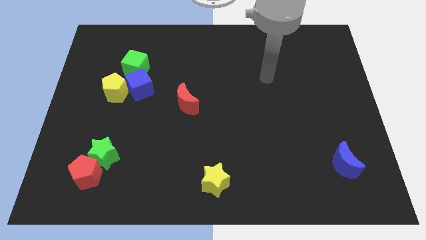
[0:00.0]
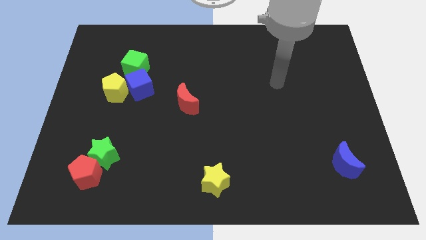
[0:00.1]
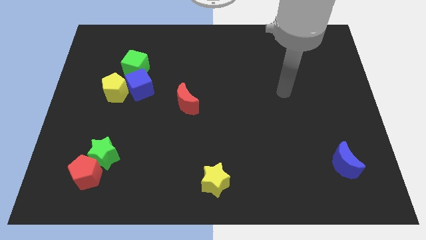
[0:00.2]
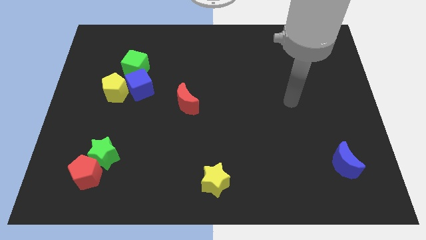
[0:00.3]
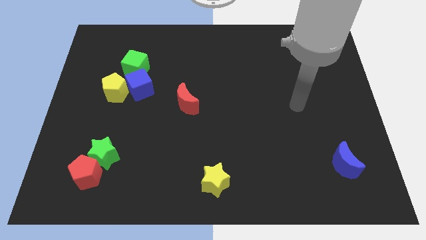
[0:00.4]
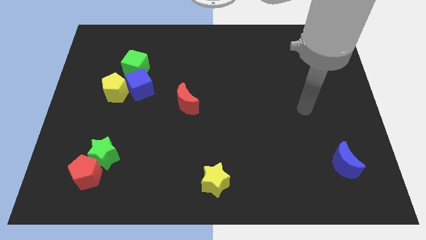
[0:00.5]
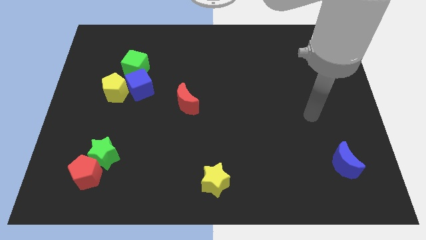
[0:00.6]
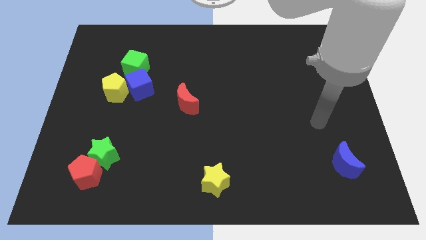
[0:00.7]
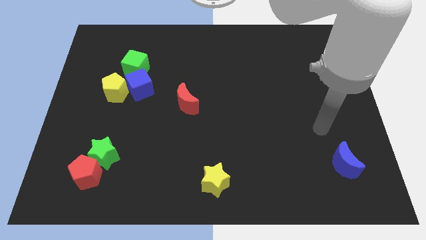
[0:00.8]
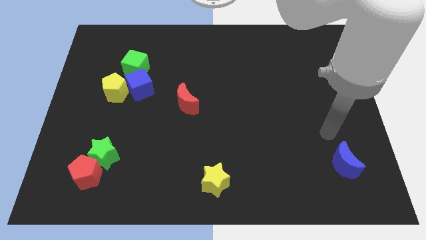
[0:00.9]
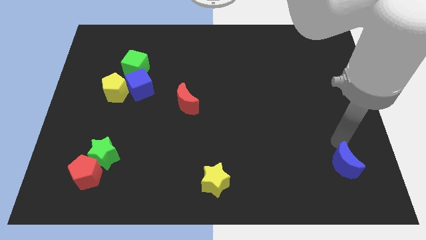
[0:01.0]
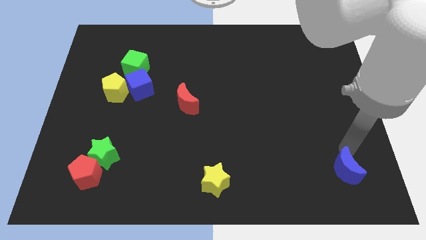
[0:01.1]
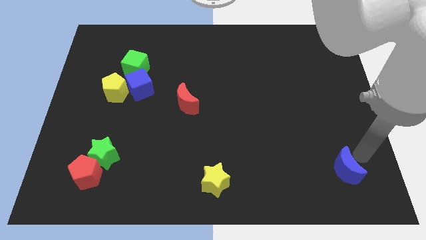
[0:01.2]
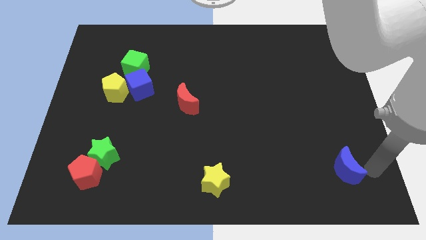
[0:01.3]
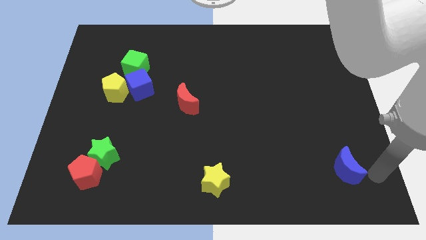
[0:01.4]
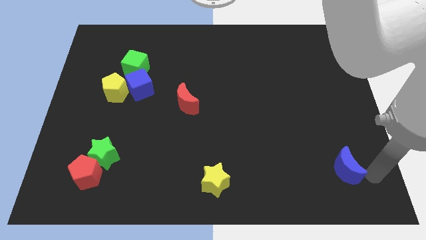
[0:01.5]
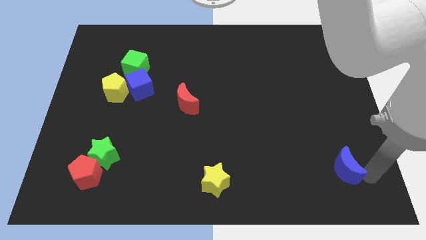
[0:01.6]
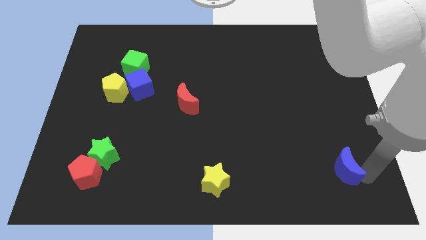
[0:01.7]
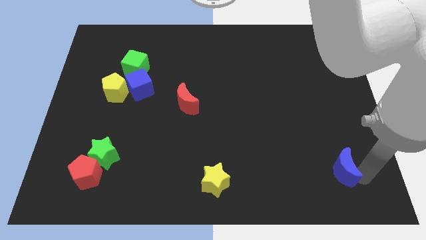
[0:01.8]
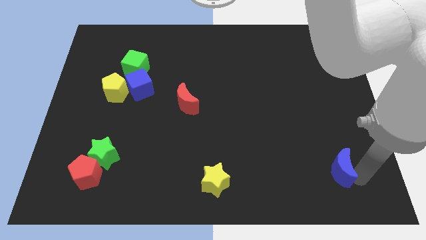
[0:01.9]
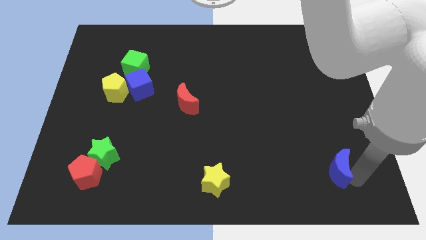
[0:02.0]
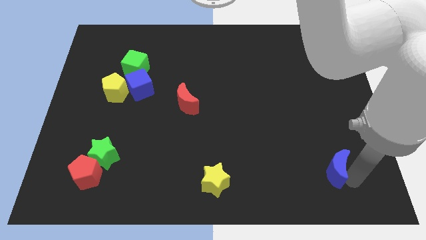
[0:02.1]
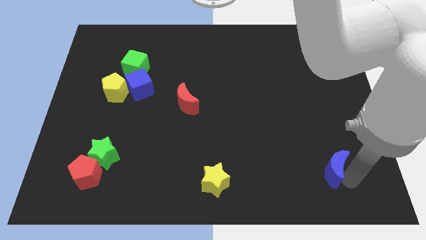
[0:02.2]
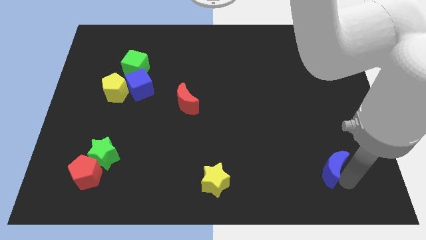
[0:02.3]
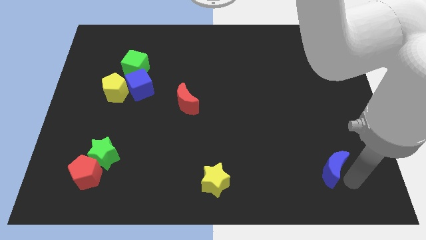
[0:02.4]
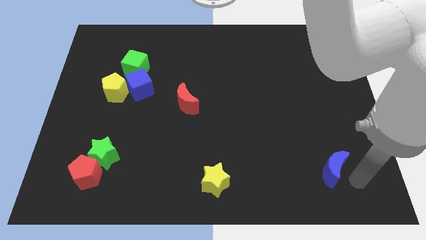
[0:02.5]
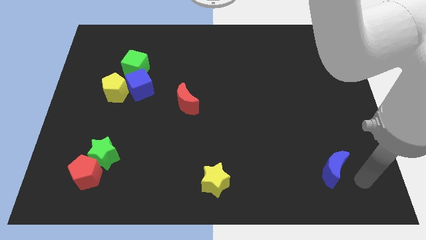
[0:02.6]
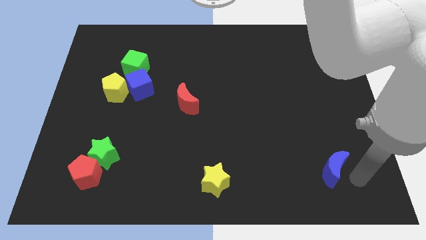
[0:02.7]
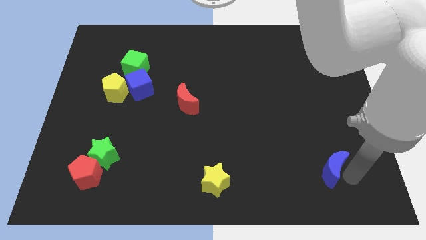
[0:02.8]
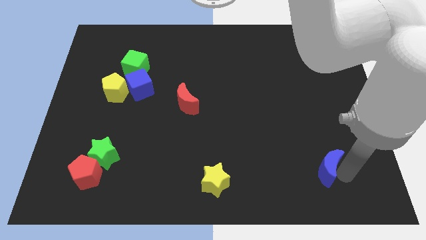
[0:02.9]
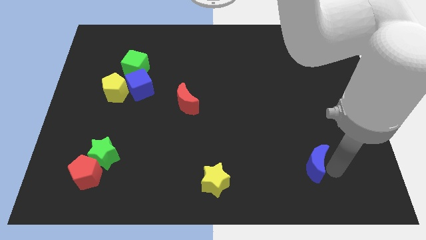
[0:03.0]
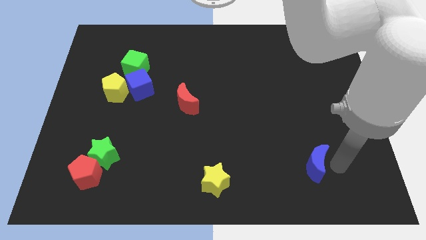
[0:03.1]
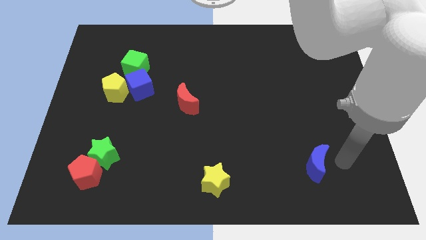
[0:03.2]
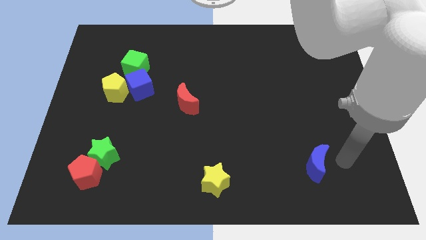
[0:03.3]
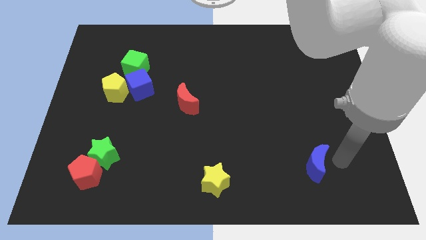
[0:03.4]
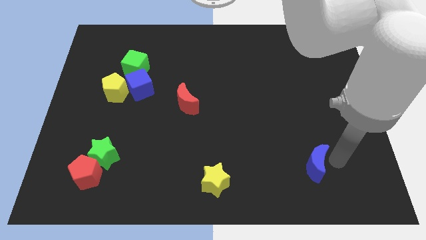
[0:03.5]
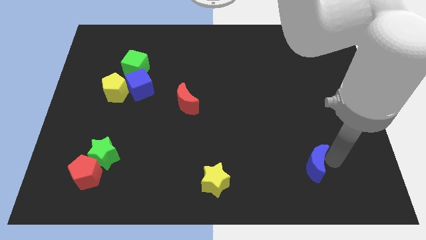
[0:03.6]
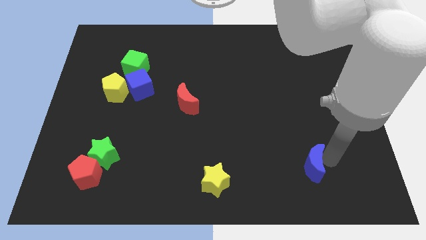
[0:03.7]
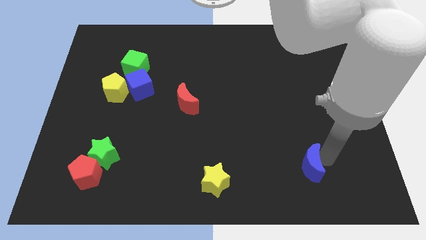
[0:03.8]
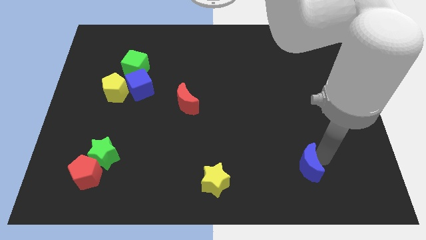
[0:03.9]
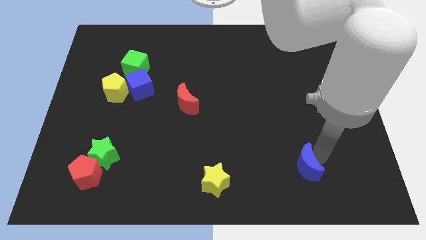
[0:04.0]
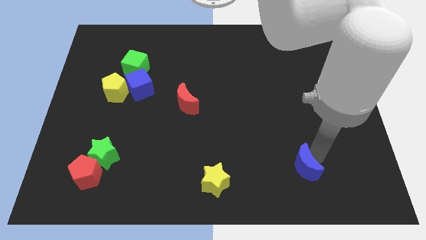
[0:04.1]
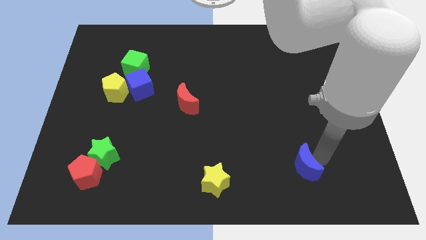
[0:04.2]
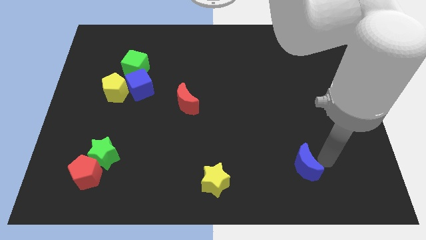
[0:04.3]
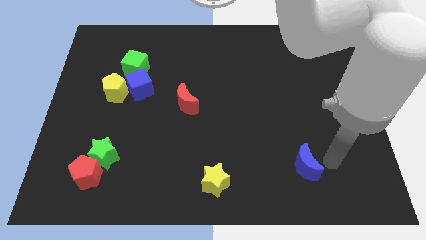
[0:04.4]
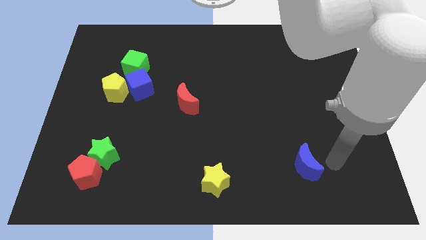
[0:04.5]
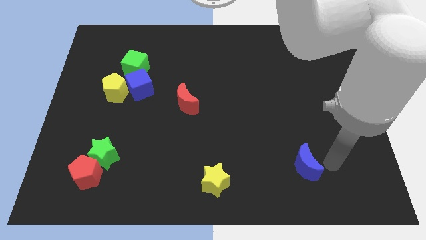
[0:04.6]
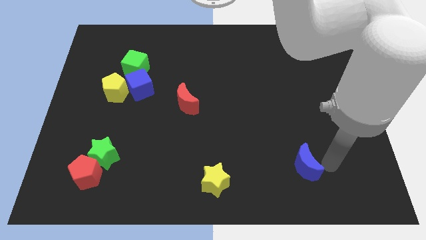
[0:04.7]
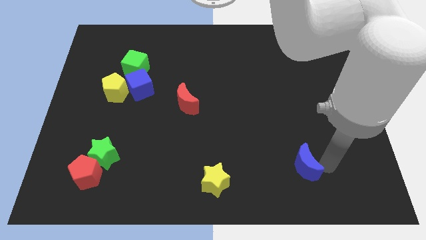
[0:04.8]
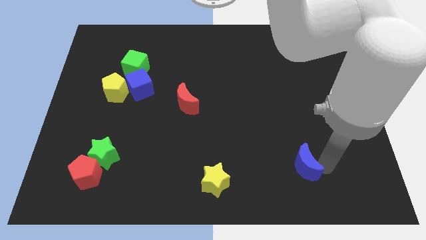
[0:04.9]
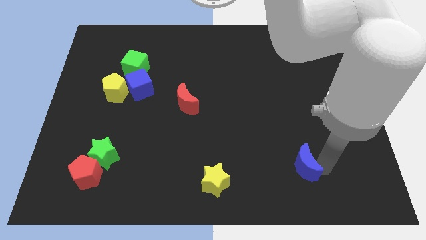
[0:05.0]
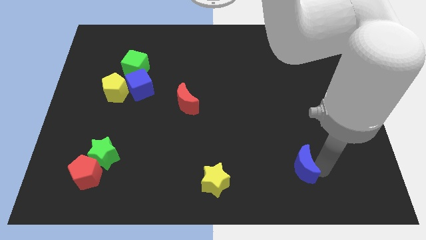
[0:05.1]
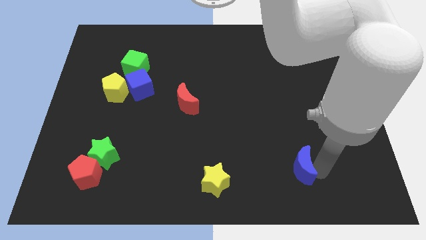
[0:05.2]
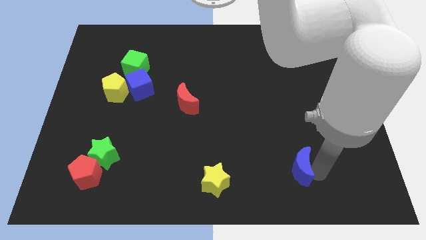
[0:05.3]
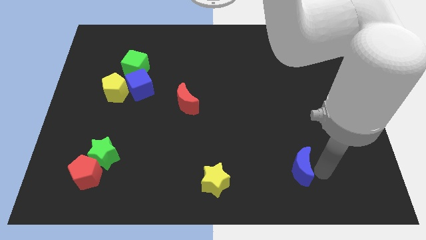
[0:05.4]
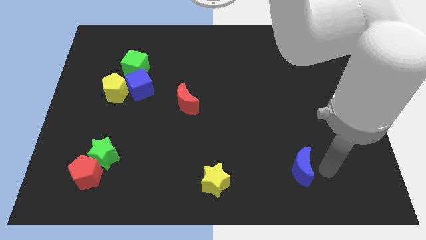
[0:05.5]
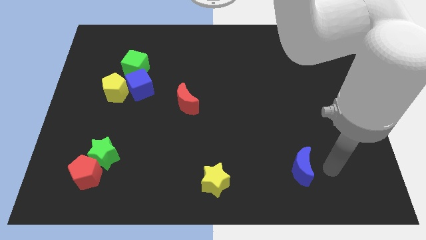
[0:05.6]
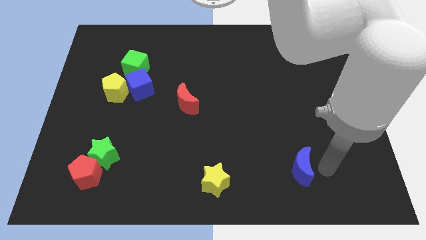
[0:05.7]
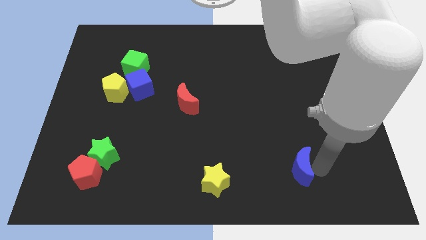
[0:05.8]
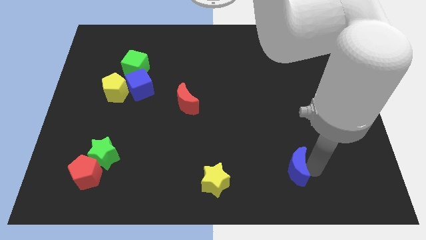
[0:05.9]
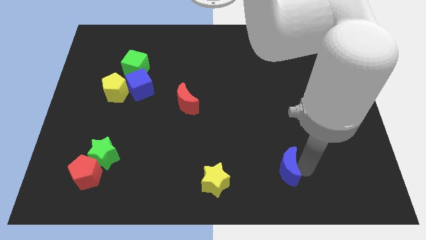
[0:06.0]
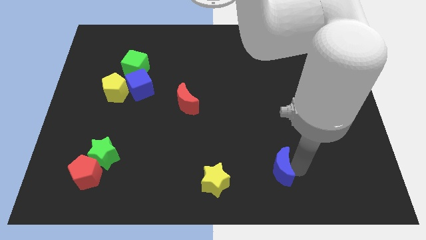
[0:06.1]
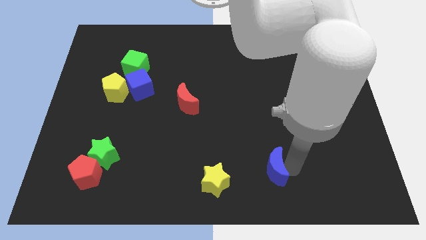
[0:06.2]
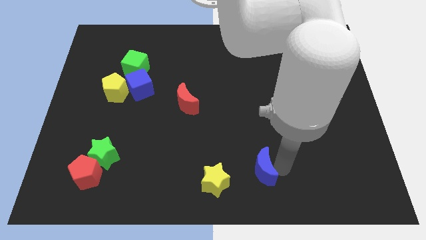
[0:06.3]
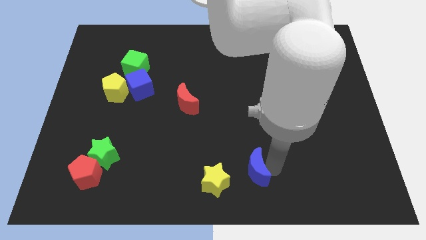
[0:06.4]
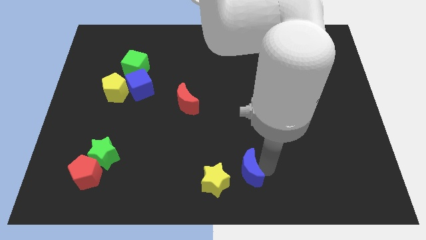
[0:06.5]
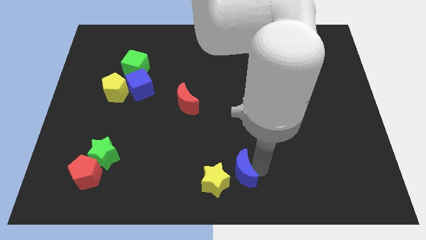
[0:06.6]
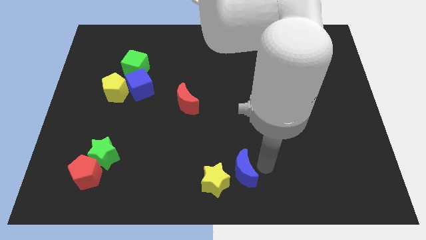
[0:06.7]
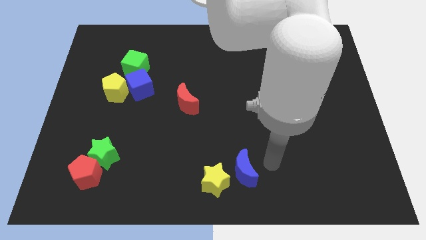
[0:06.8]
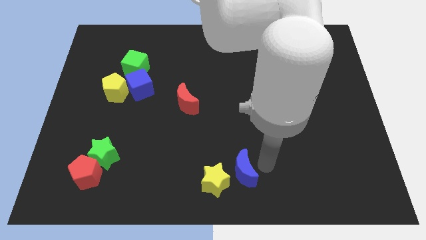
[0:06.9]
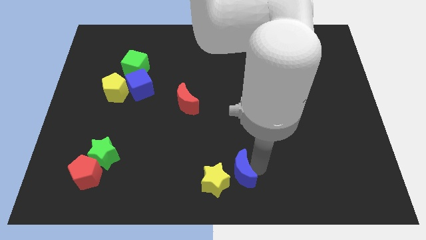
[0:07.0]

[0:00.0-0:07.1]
slide the blue moon towards the yellow star
